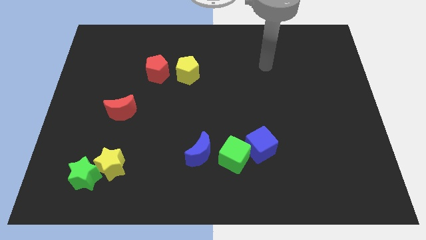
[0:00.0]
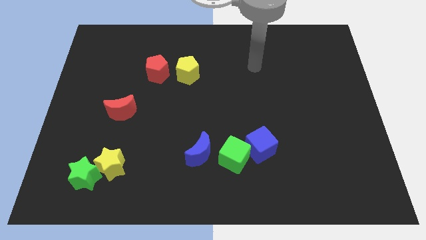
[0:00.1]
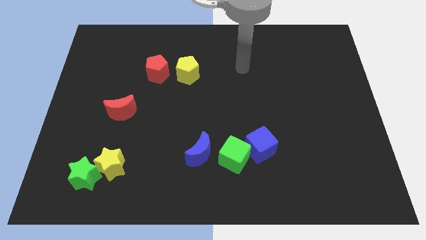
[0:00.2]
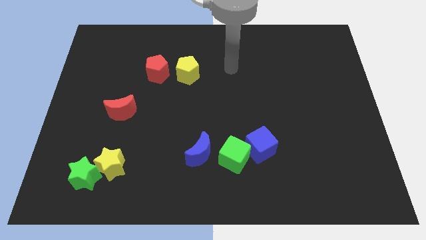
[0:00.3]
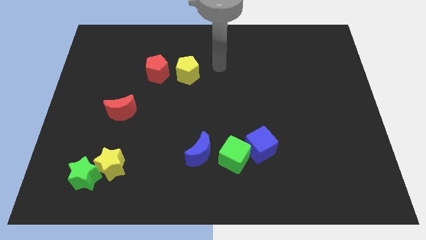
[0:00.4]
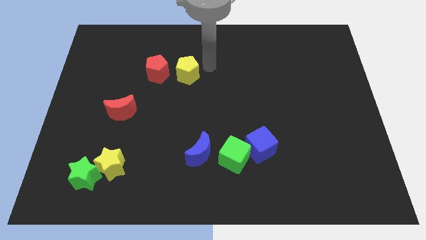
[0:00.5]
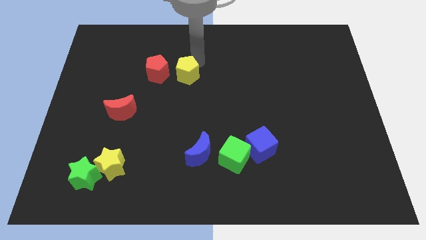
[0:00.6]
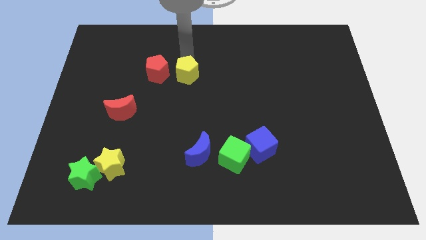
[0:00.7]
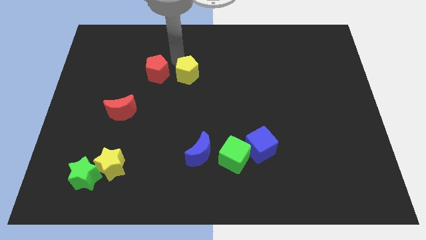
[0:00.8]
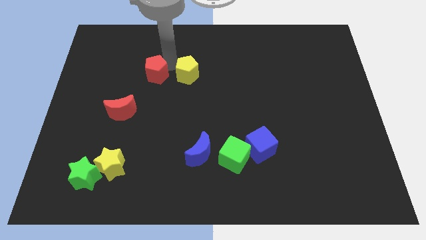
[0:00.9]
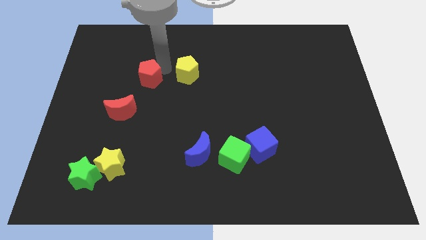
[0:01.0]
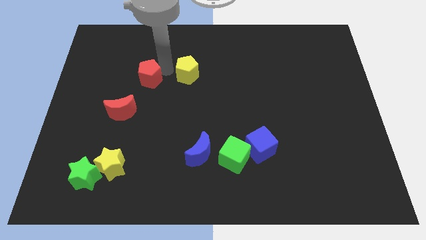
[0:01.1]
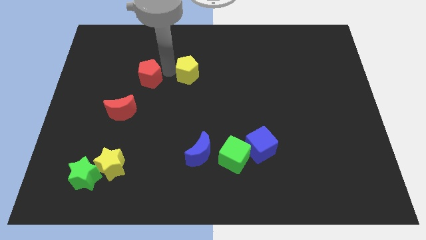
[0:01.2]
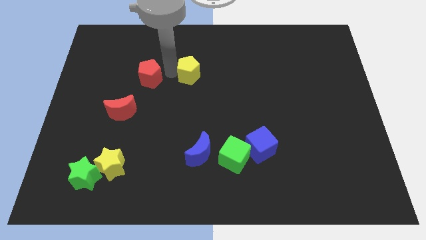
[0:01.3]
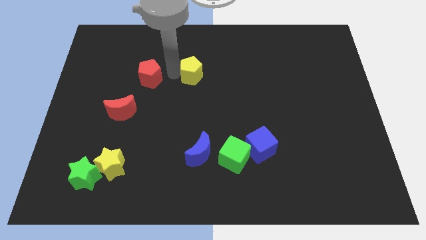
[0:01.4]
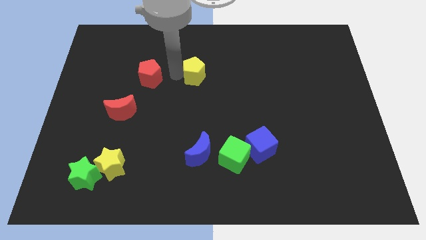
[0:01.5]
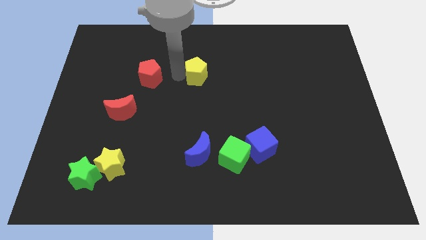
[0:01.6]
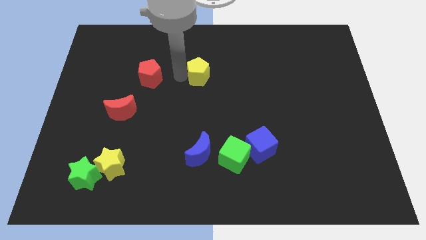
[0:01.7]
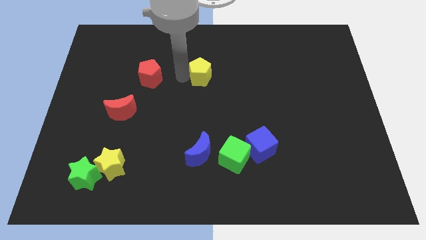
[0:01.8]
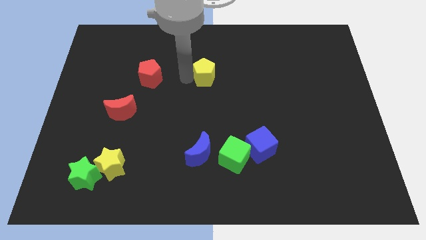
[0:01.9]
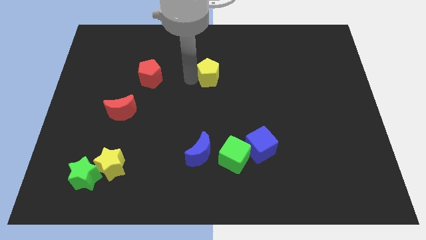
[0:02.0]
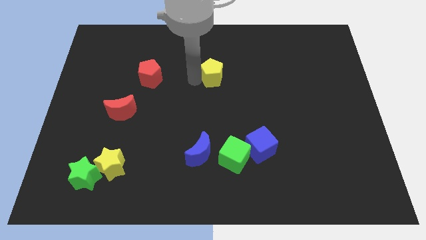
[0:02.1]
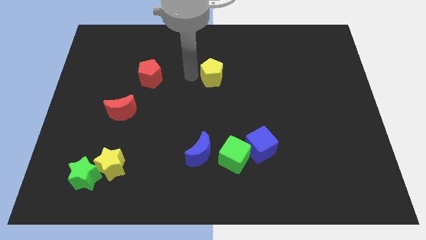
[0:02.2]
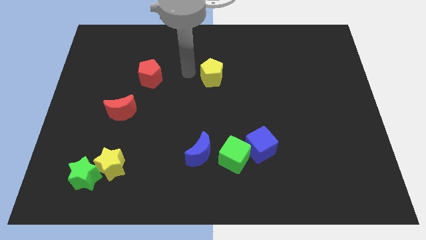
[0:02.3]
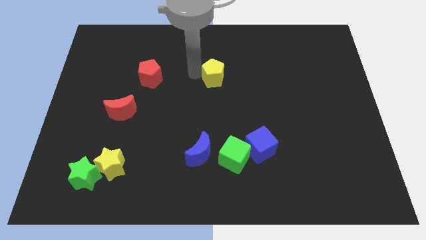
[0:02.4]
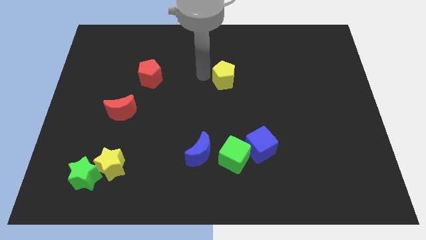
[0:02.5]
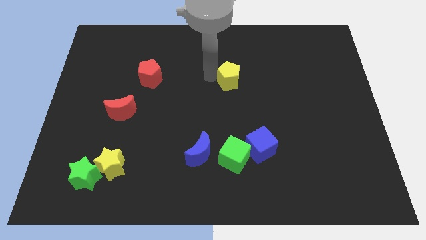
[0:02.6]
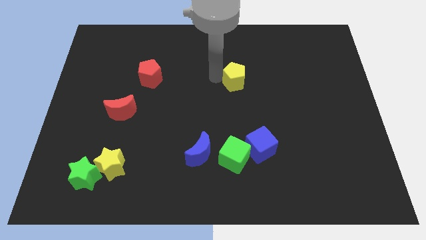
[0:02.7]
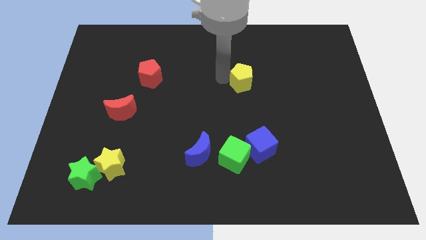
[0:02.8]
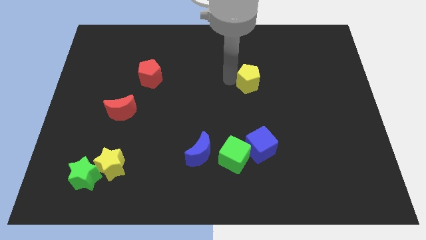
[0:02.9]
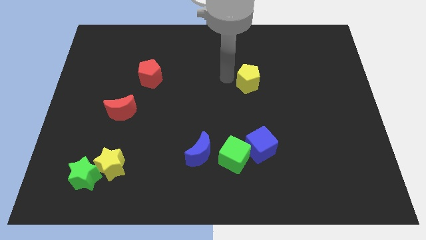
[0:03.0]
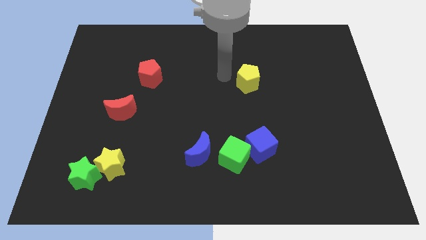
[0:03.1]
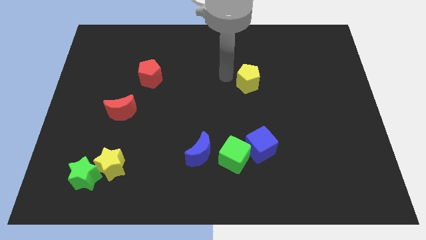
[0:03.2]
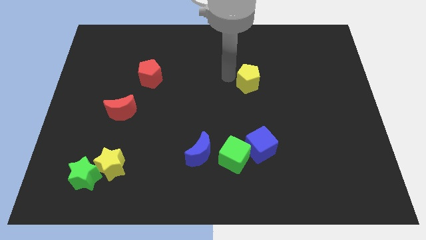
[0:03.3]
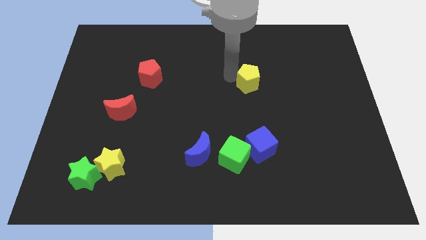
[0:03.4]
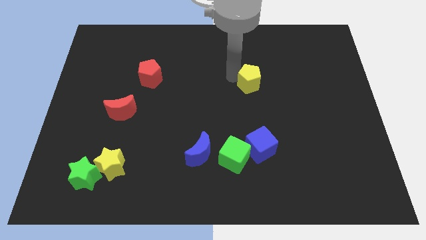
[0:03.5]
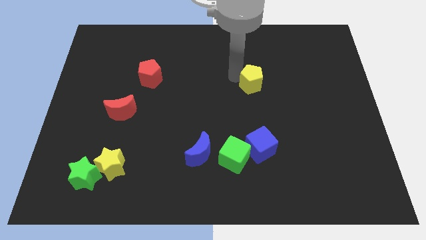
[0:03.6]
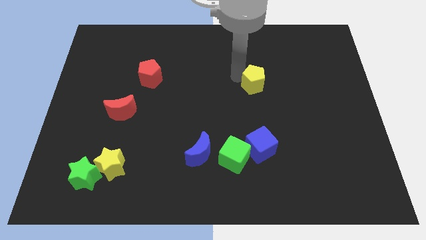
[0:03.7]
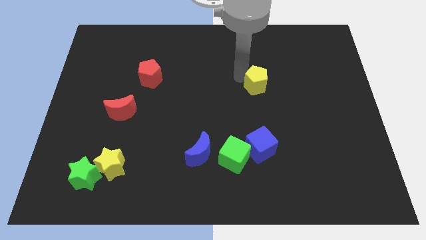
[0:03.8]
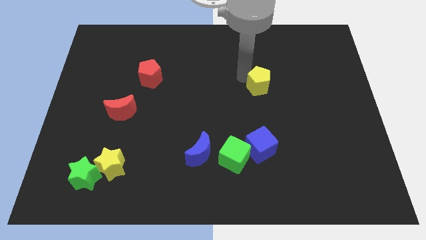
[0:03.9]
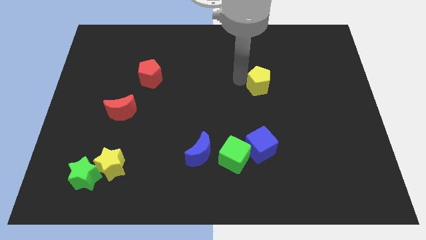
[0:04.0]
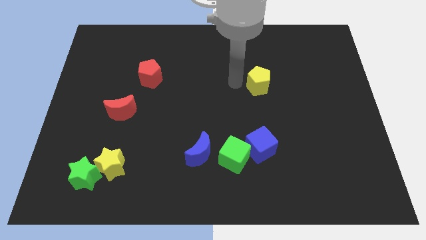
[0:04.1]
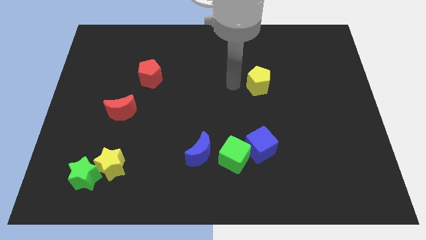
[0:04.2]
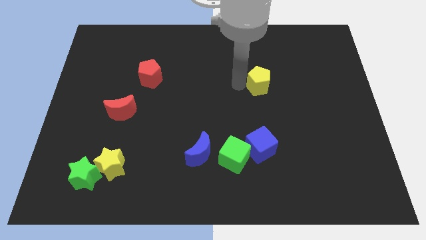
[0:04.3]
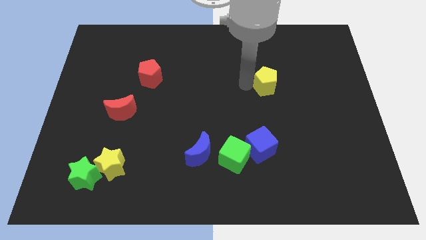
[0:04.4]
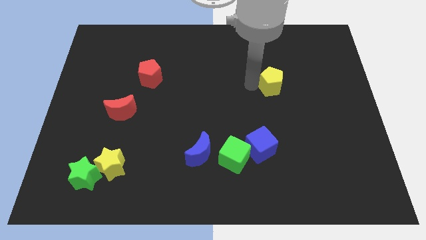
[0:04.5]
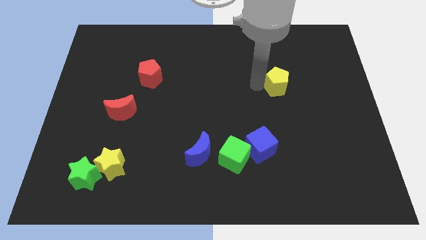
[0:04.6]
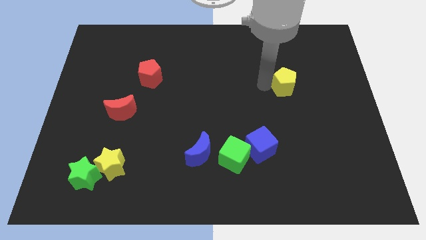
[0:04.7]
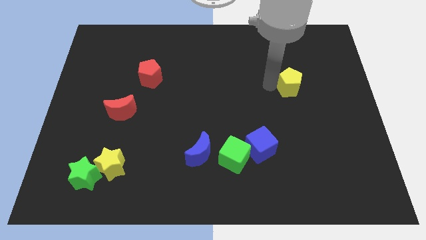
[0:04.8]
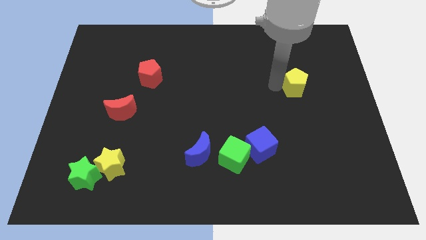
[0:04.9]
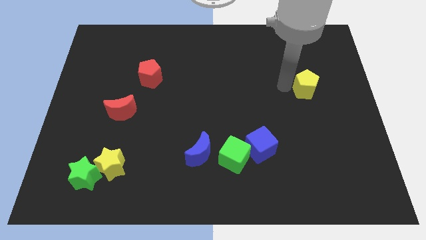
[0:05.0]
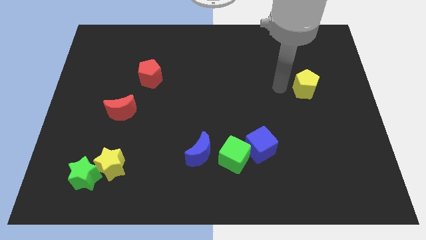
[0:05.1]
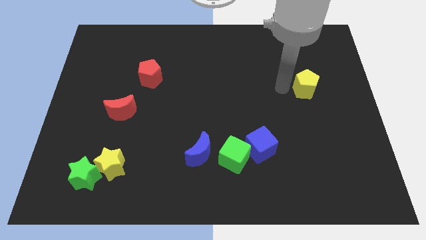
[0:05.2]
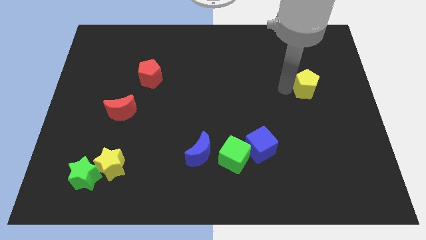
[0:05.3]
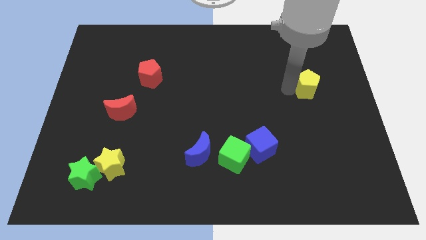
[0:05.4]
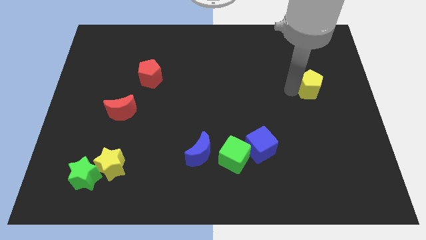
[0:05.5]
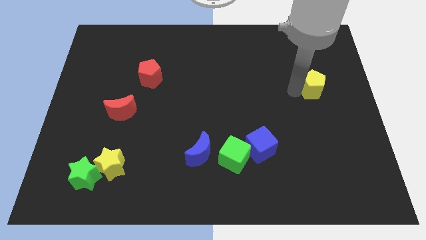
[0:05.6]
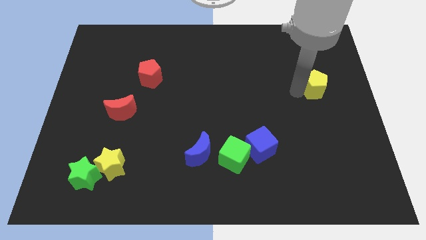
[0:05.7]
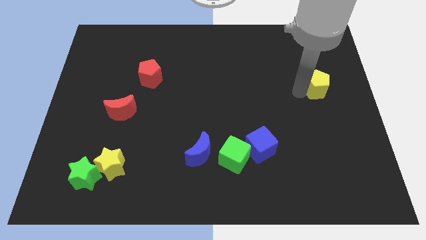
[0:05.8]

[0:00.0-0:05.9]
push the yellow pentagon to the center right
